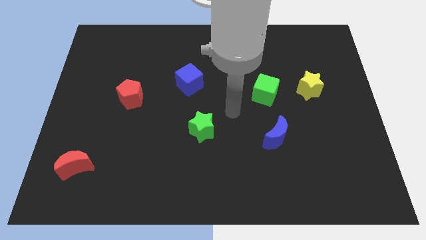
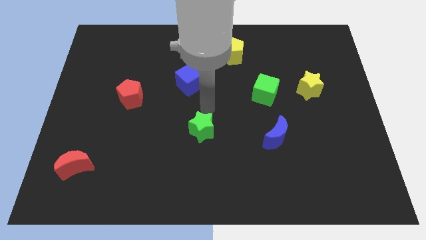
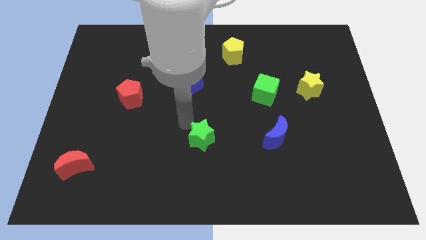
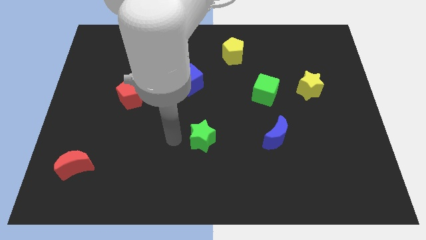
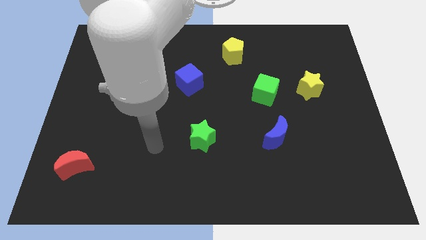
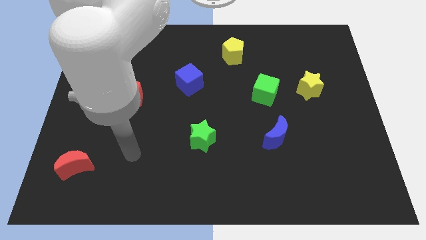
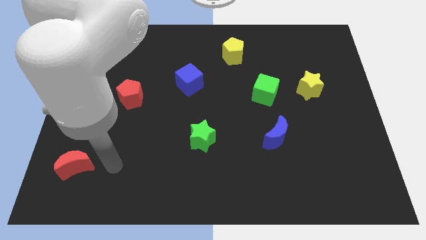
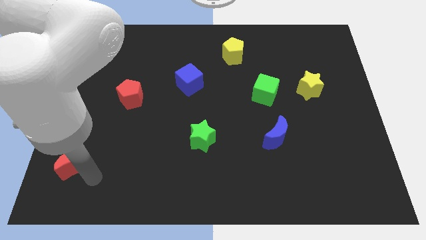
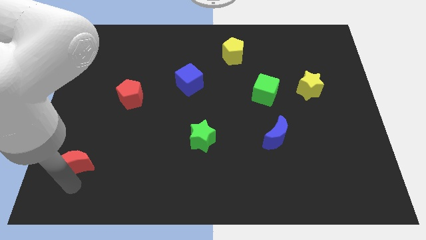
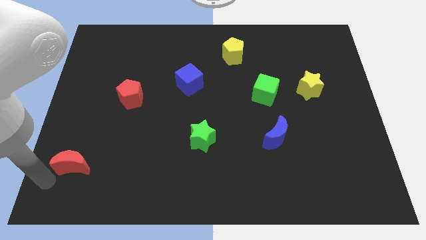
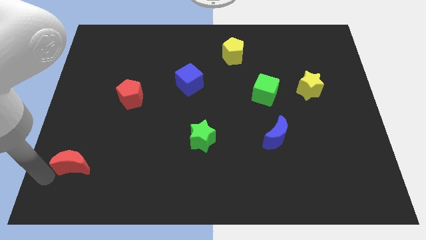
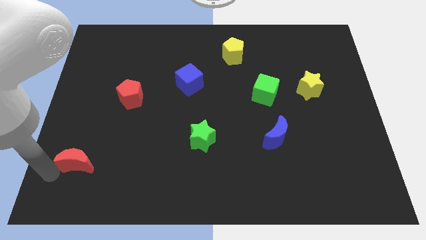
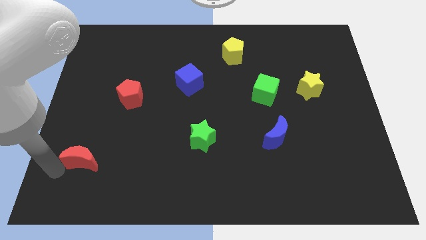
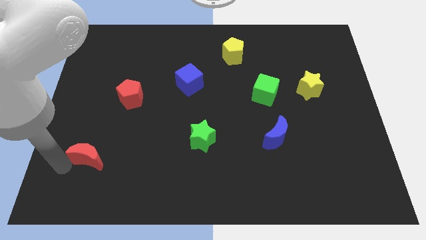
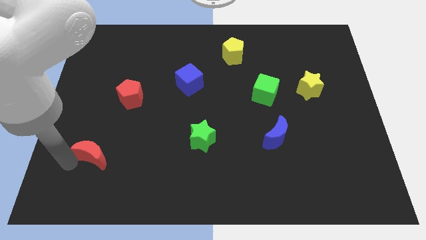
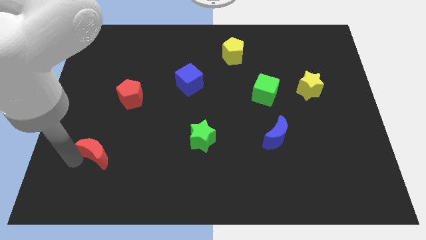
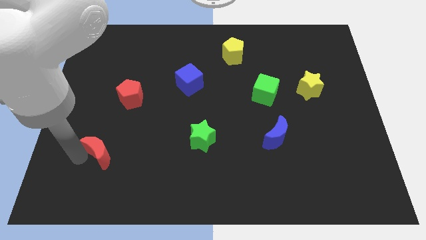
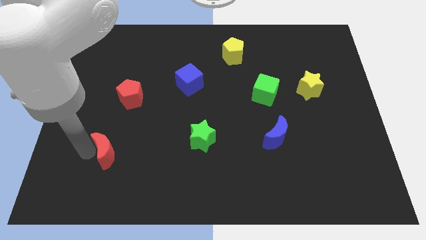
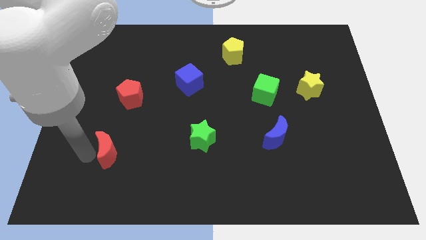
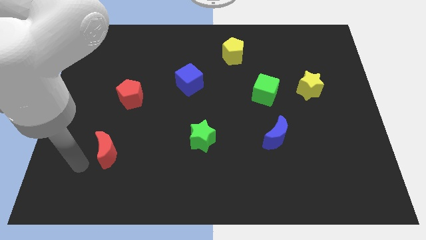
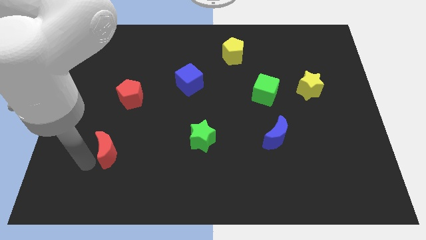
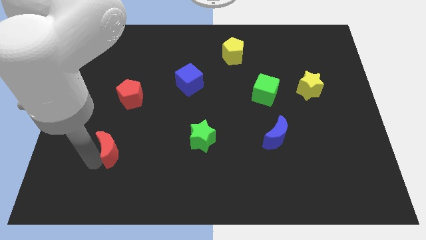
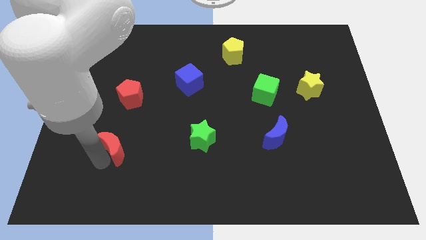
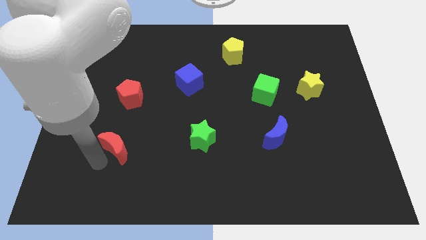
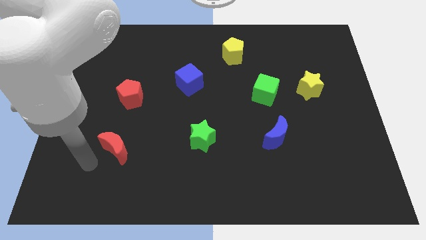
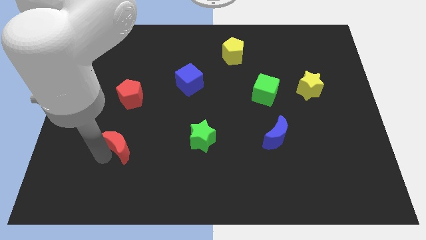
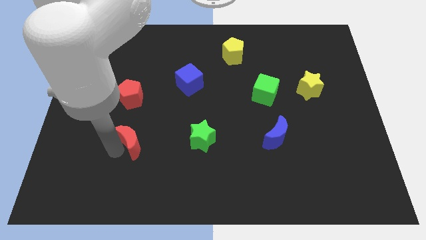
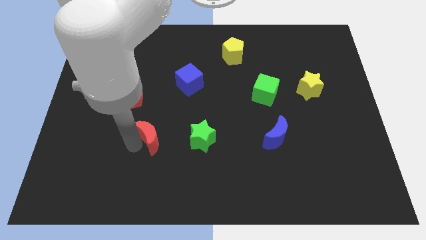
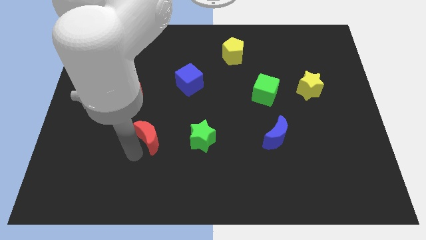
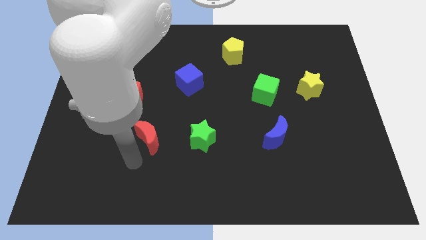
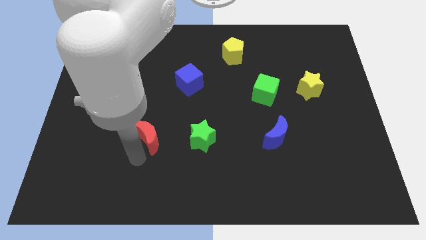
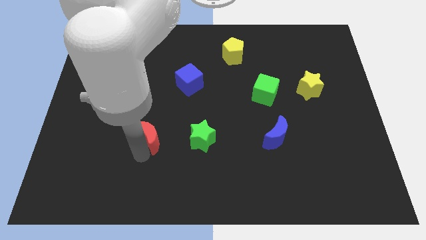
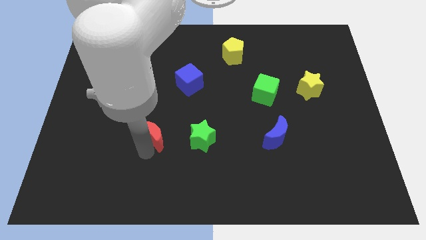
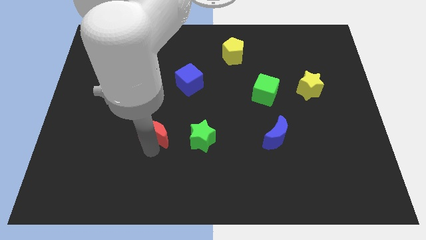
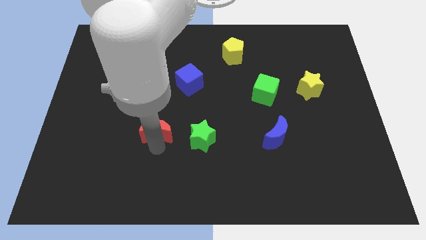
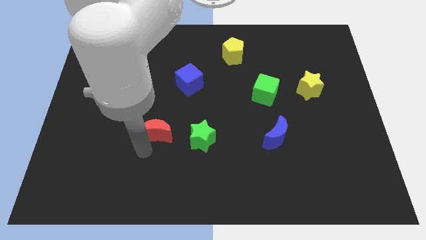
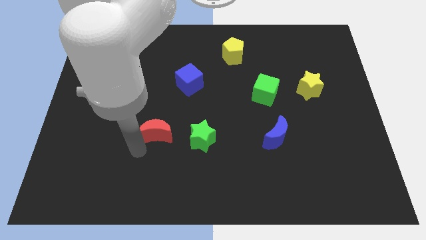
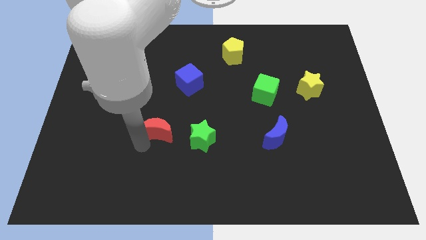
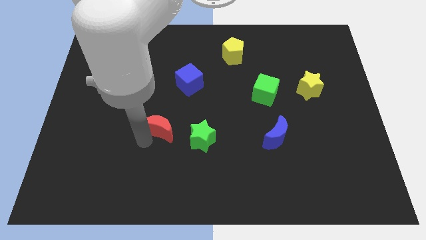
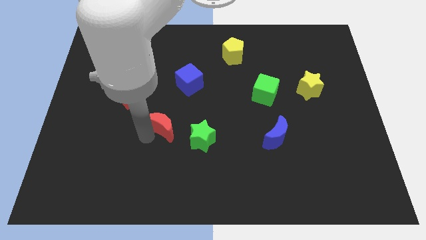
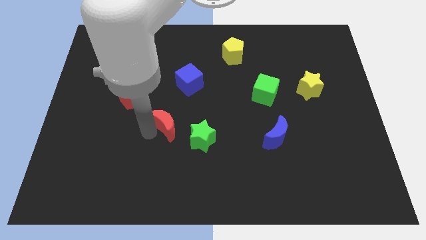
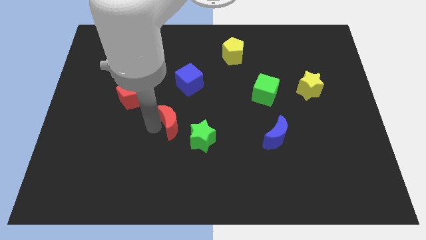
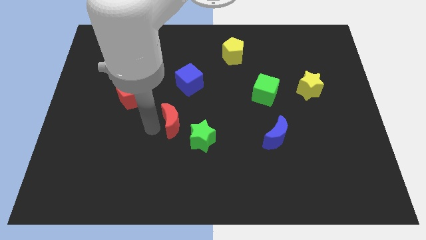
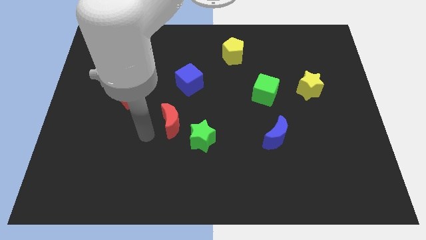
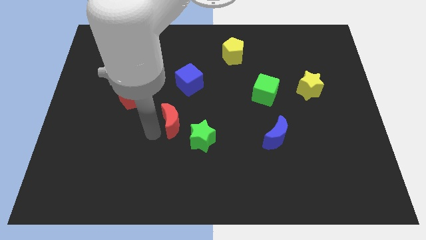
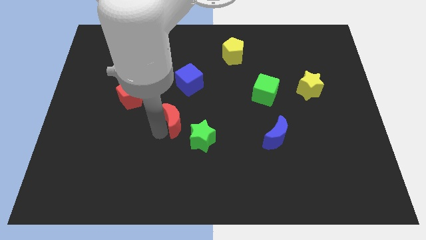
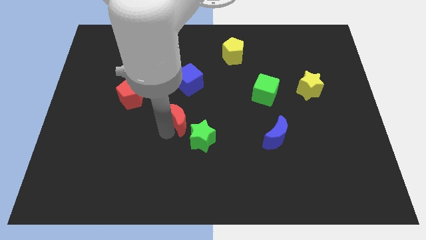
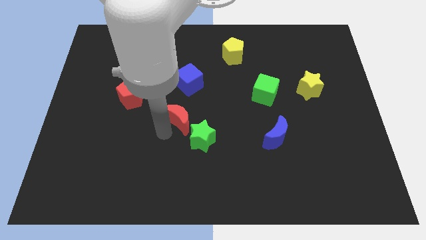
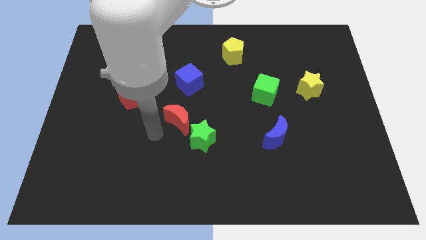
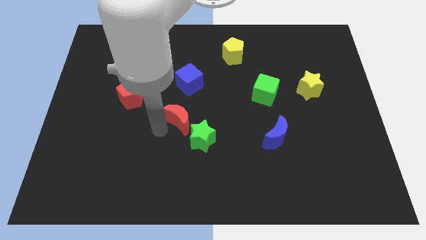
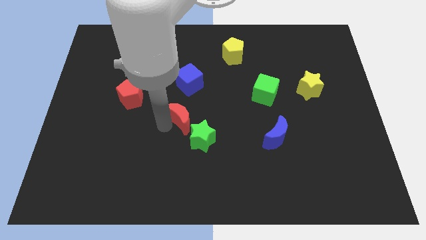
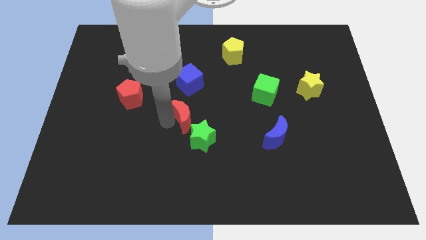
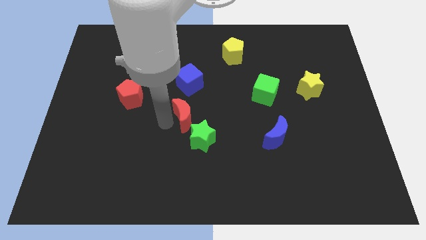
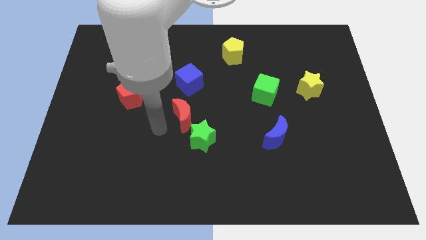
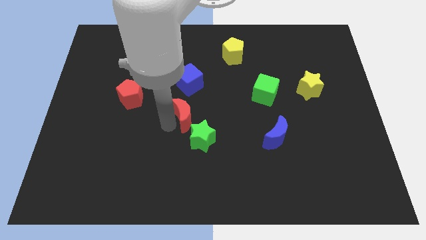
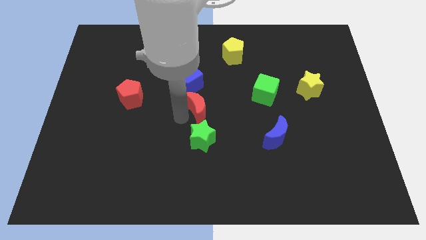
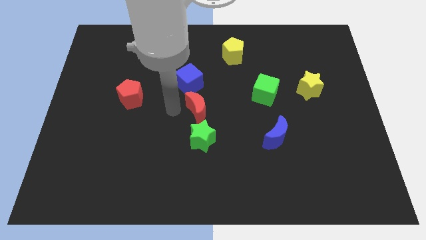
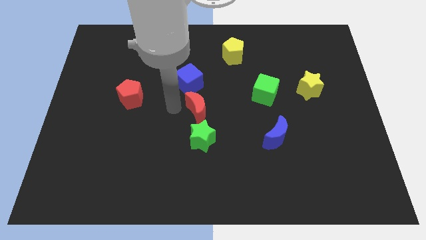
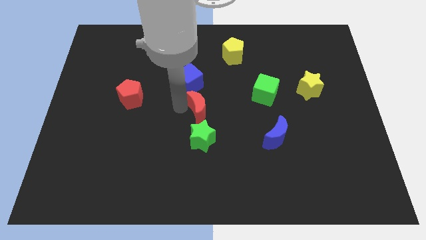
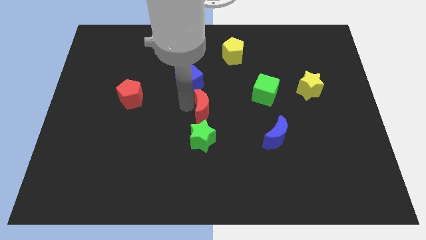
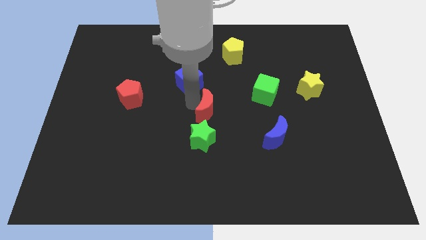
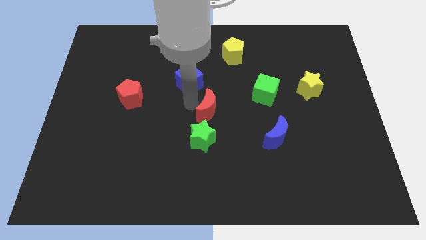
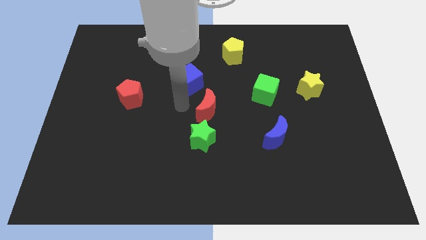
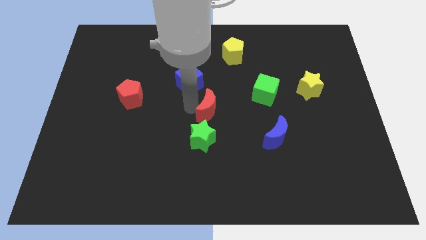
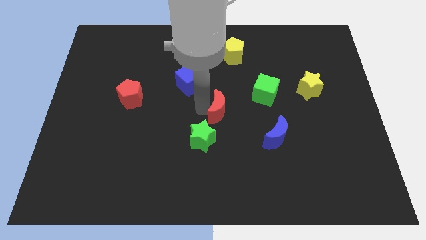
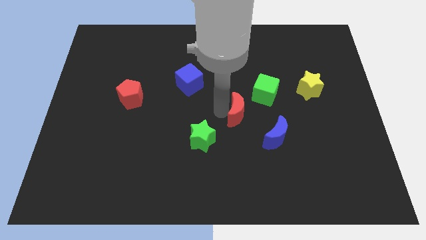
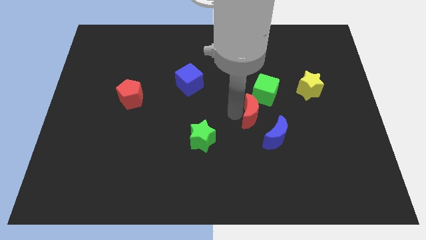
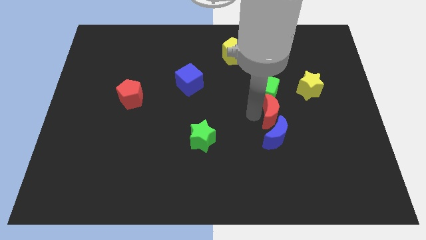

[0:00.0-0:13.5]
slide the red moon diagonally up and to the right of the blue moon
